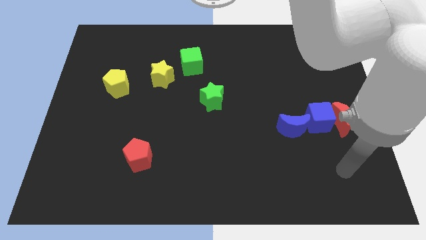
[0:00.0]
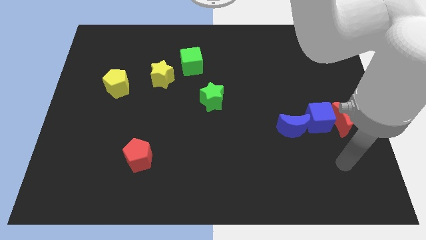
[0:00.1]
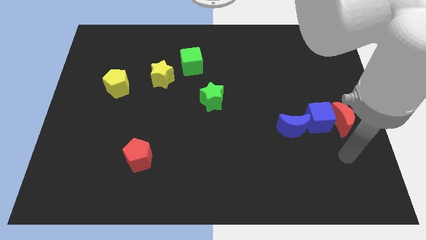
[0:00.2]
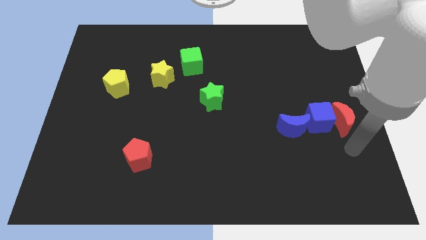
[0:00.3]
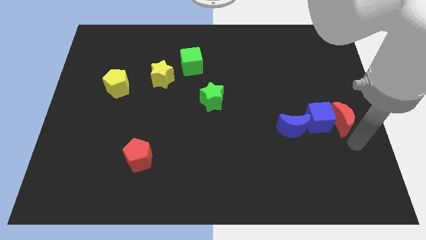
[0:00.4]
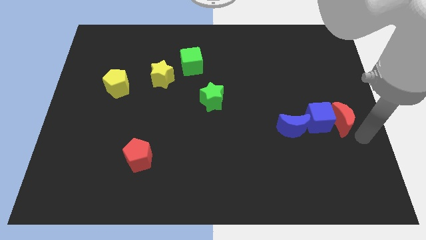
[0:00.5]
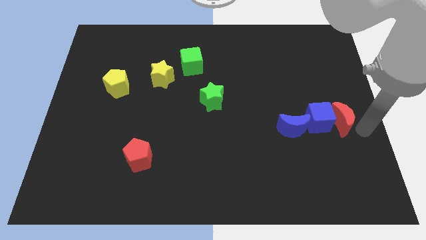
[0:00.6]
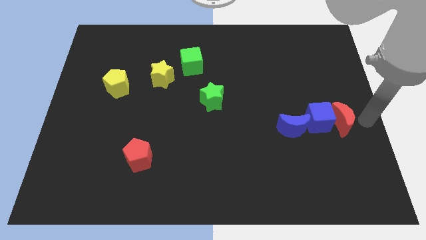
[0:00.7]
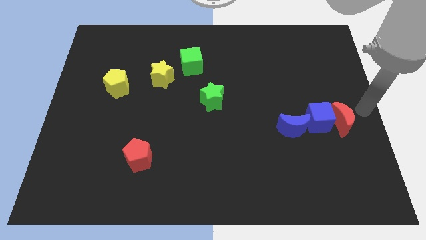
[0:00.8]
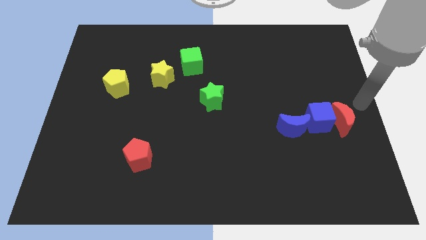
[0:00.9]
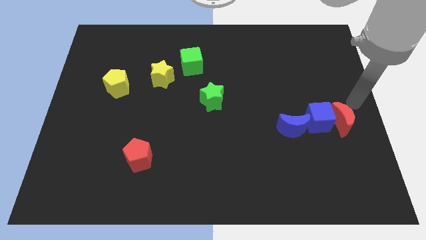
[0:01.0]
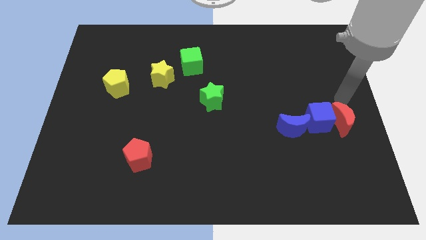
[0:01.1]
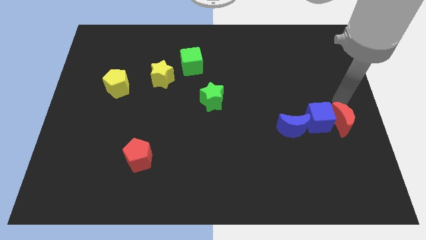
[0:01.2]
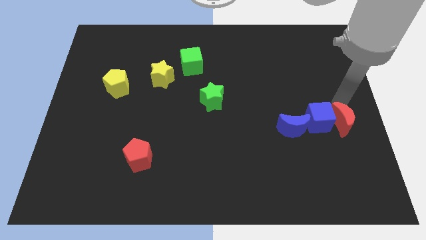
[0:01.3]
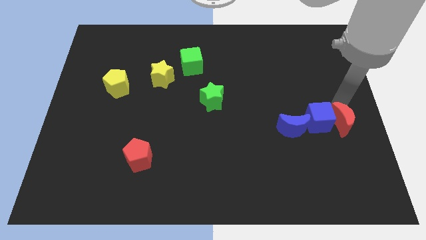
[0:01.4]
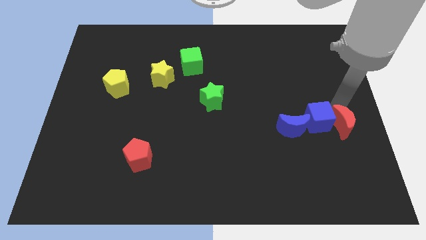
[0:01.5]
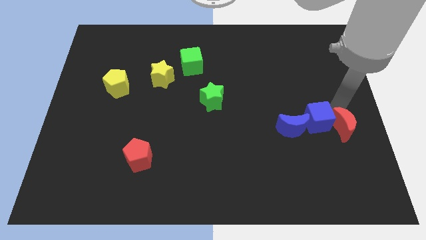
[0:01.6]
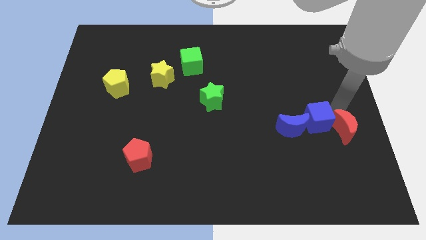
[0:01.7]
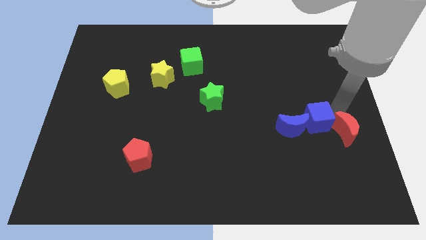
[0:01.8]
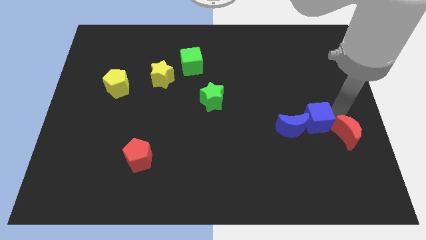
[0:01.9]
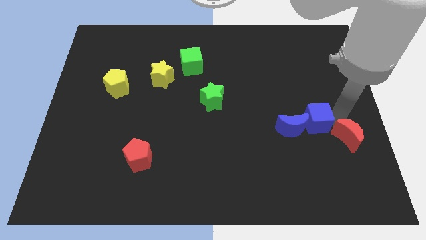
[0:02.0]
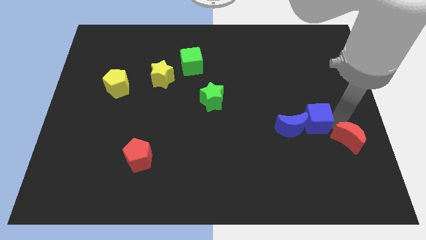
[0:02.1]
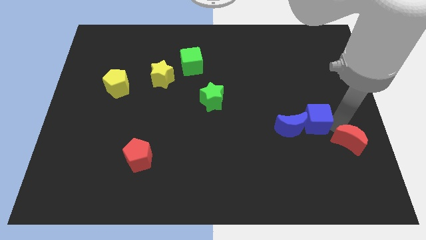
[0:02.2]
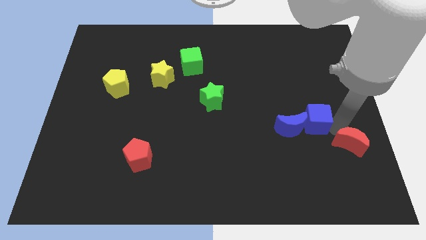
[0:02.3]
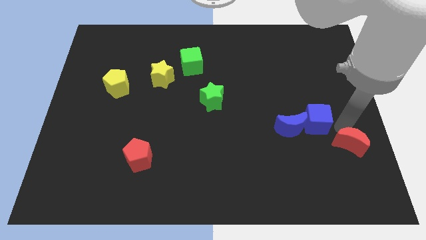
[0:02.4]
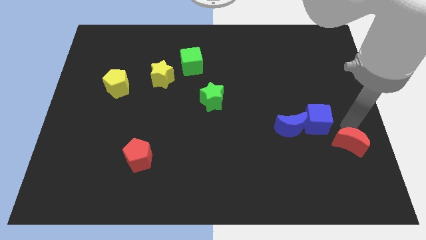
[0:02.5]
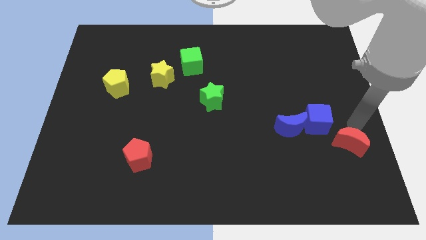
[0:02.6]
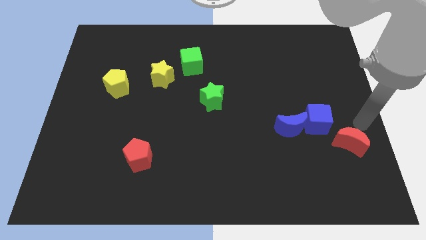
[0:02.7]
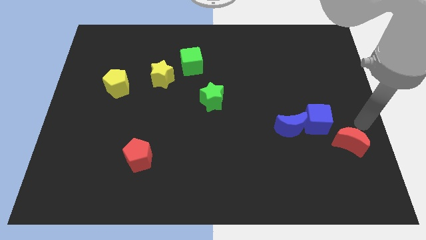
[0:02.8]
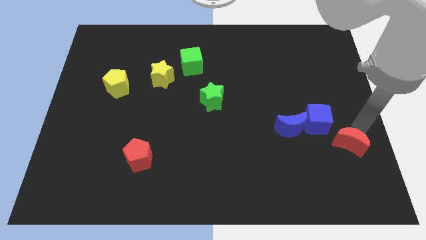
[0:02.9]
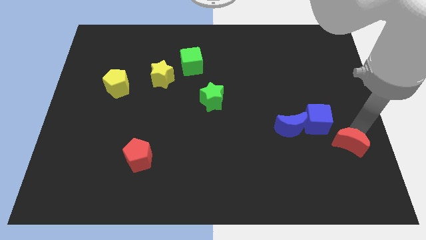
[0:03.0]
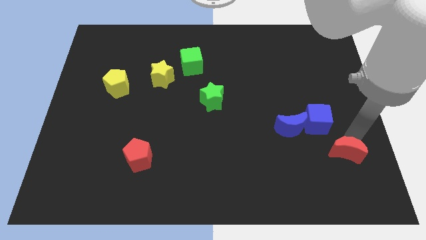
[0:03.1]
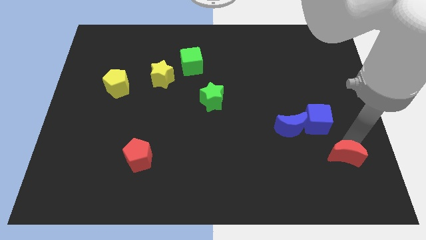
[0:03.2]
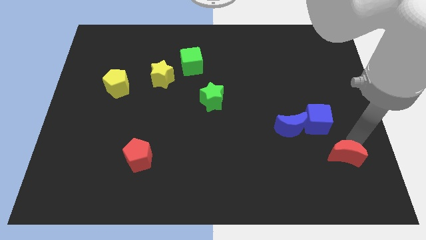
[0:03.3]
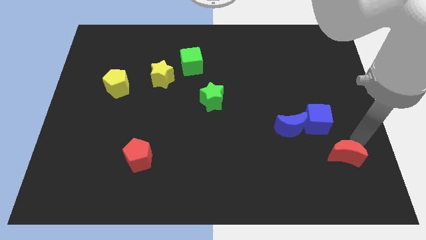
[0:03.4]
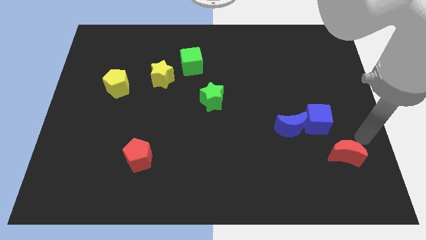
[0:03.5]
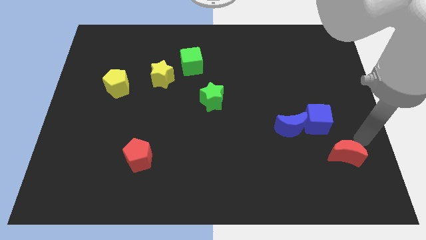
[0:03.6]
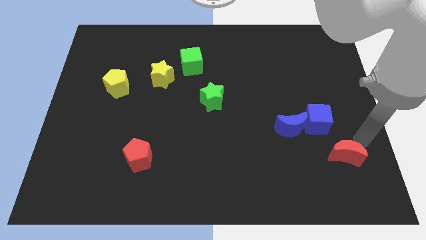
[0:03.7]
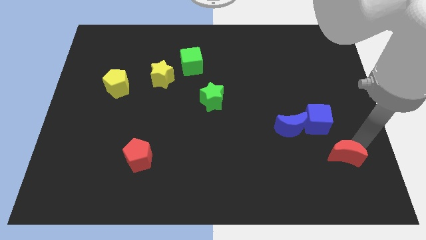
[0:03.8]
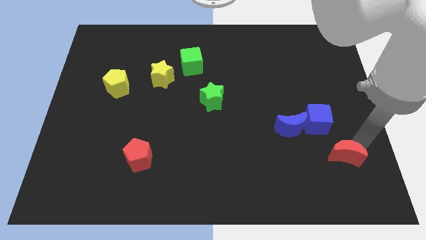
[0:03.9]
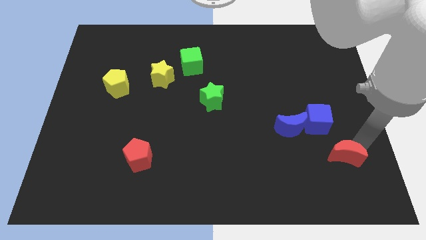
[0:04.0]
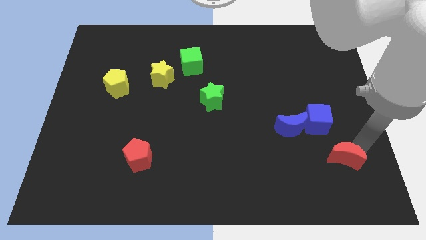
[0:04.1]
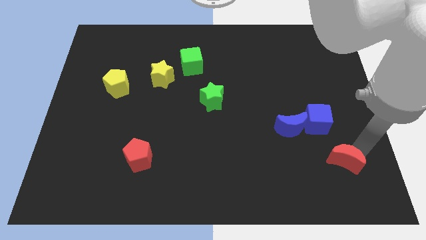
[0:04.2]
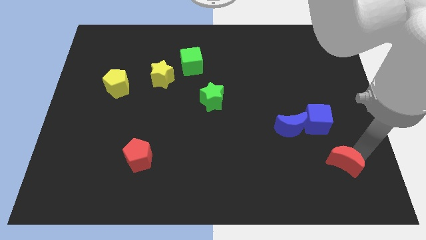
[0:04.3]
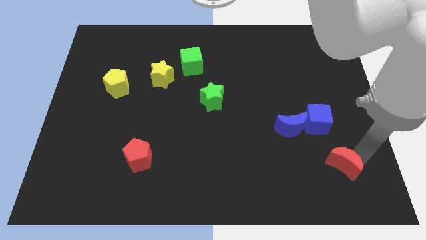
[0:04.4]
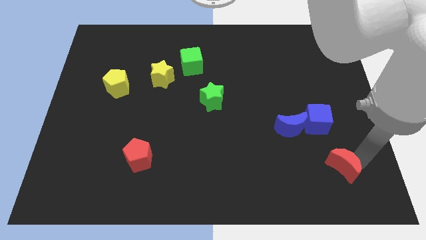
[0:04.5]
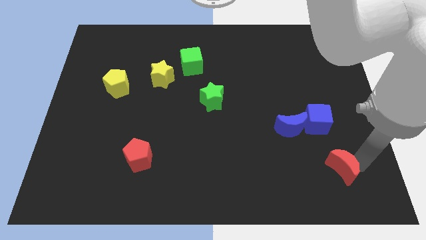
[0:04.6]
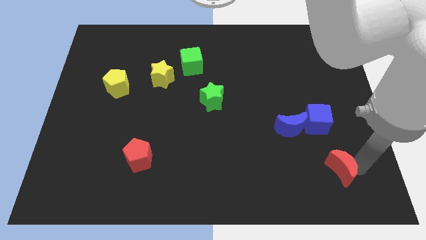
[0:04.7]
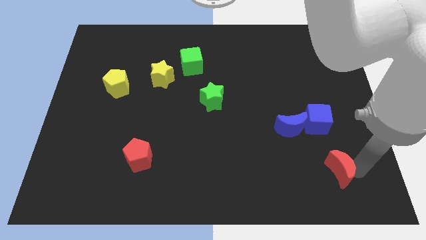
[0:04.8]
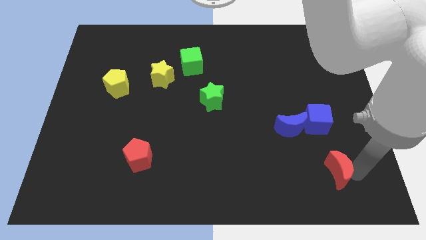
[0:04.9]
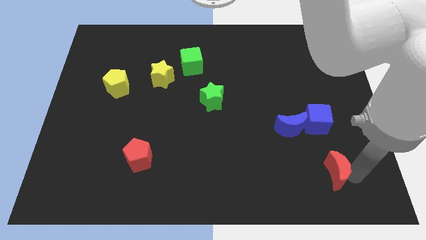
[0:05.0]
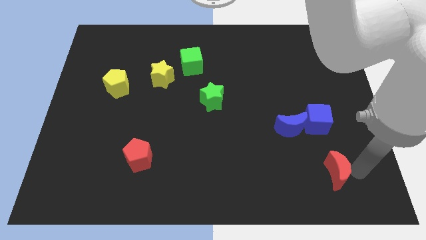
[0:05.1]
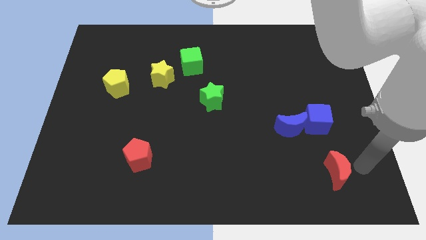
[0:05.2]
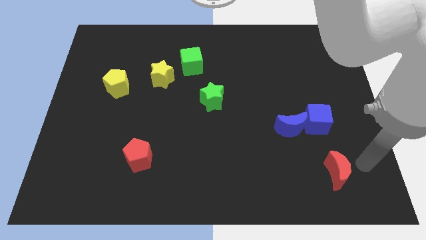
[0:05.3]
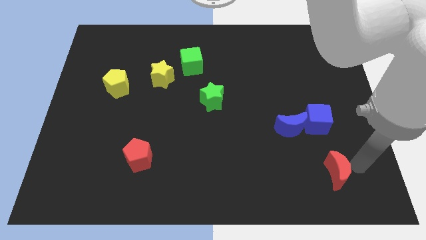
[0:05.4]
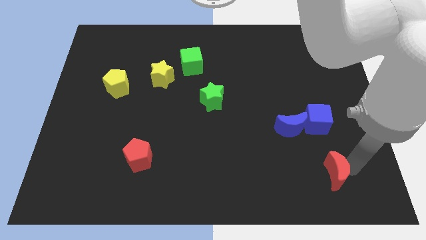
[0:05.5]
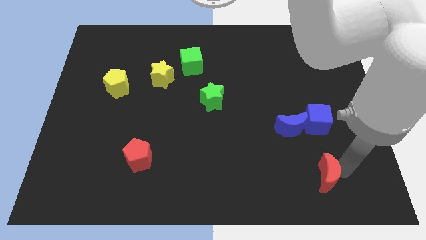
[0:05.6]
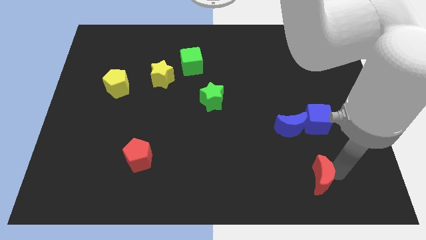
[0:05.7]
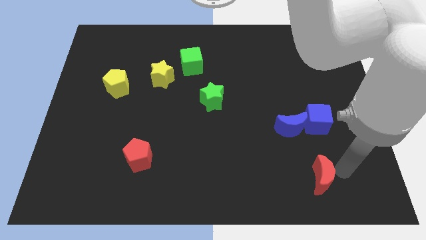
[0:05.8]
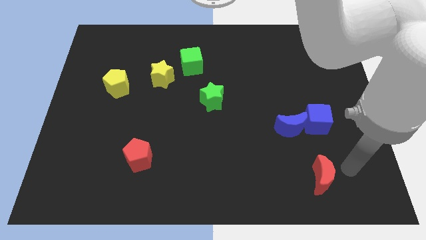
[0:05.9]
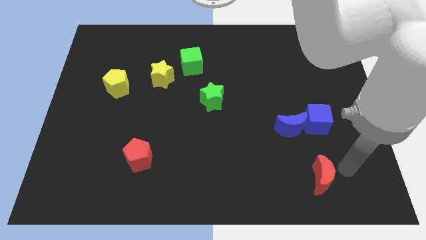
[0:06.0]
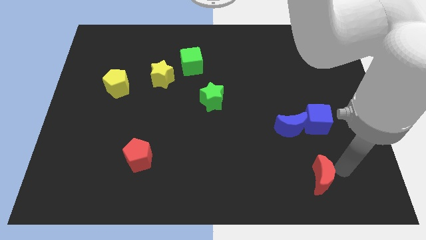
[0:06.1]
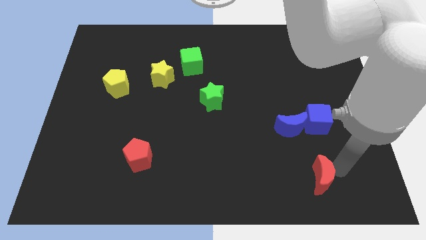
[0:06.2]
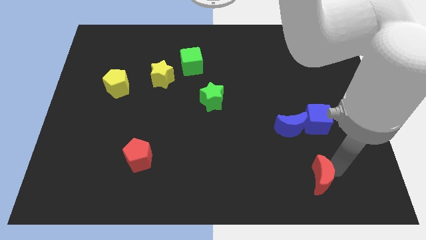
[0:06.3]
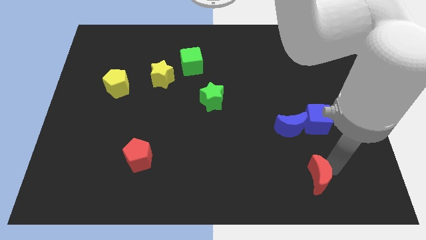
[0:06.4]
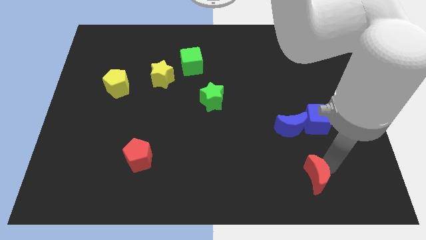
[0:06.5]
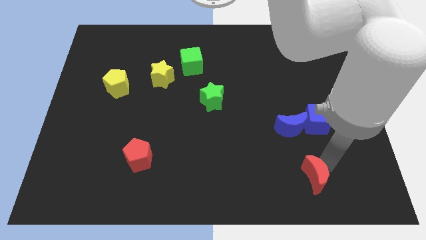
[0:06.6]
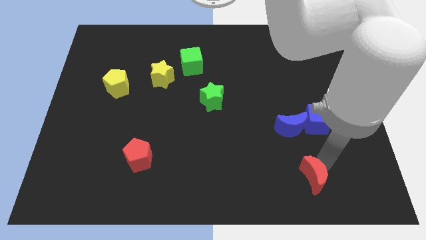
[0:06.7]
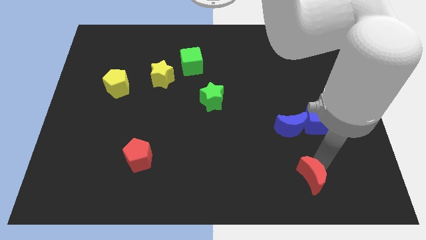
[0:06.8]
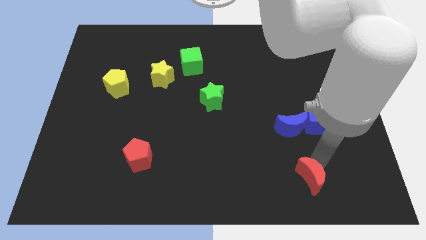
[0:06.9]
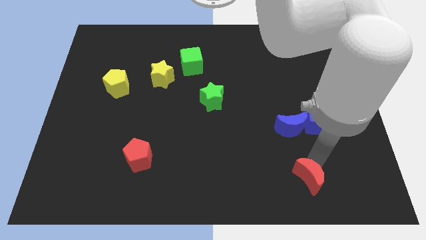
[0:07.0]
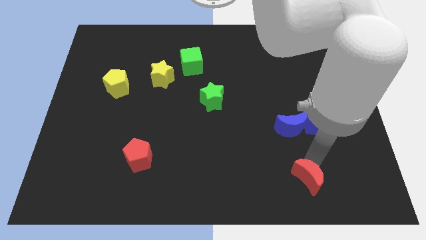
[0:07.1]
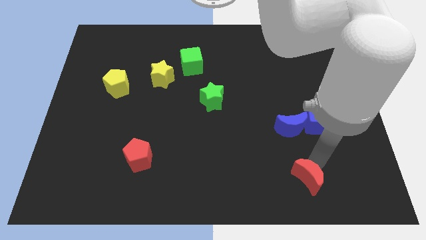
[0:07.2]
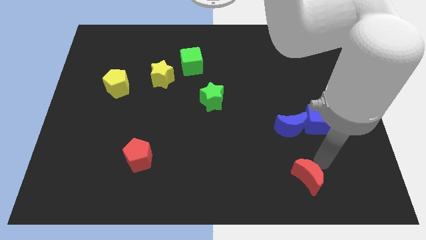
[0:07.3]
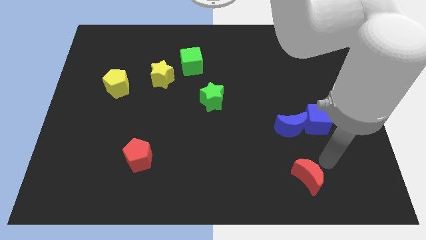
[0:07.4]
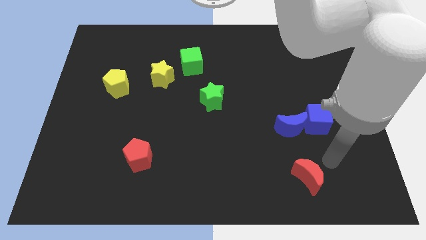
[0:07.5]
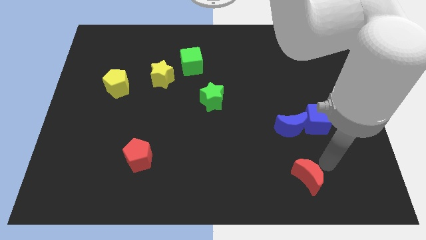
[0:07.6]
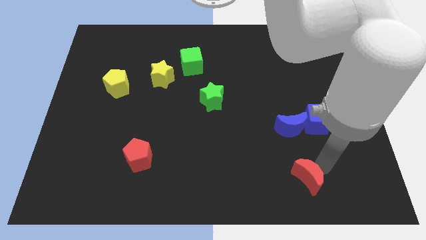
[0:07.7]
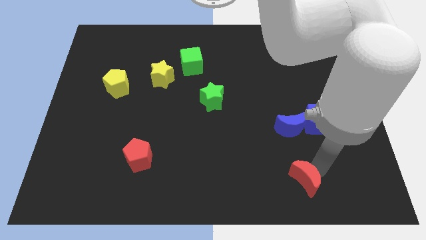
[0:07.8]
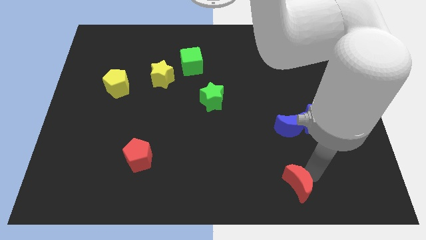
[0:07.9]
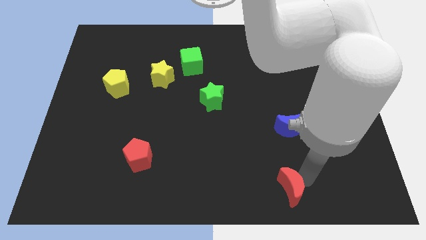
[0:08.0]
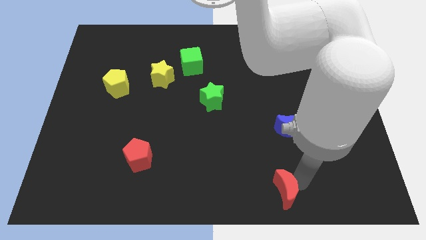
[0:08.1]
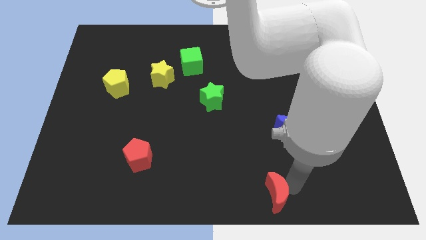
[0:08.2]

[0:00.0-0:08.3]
move the red moon to the bottom side
